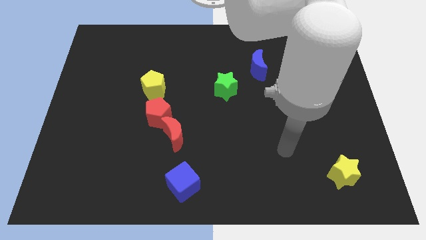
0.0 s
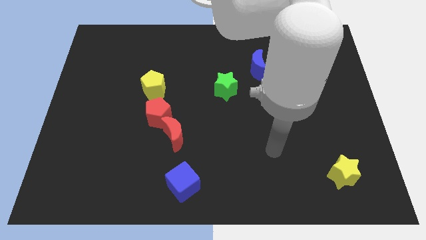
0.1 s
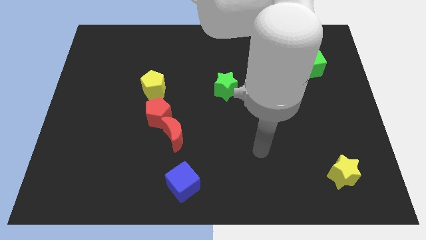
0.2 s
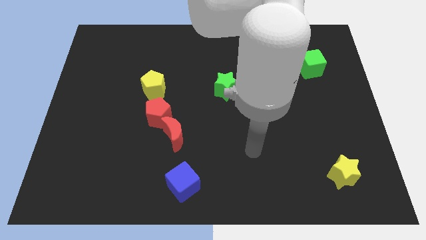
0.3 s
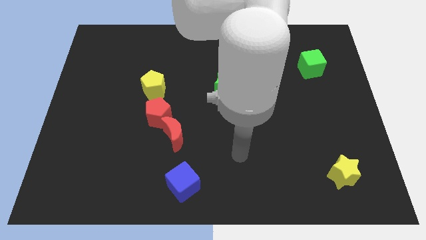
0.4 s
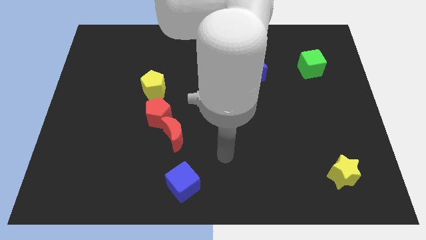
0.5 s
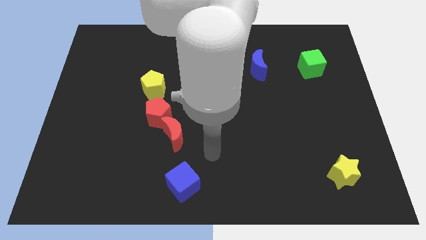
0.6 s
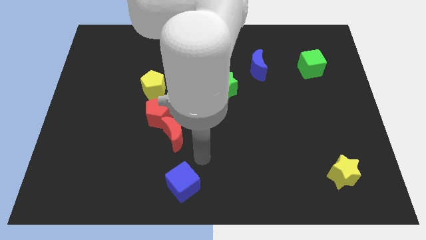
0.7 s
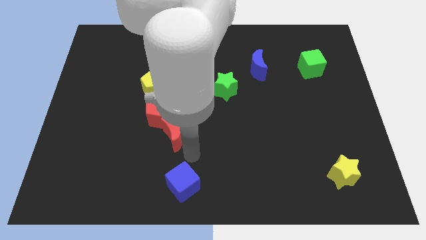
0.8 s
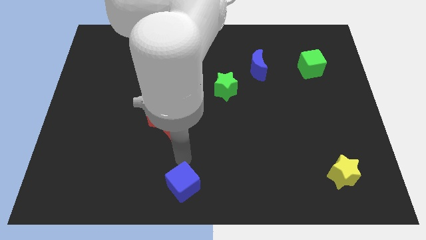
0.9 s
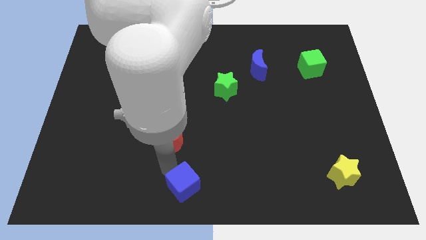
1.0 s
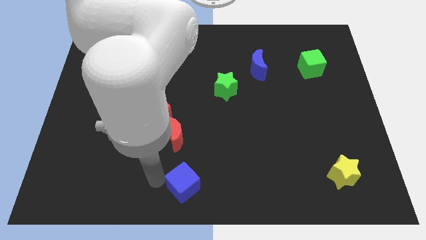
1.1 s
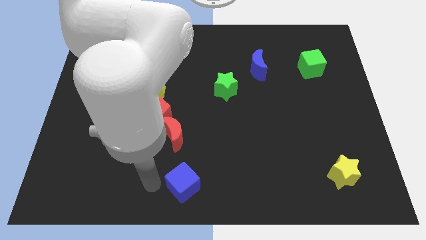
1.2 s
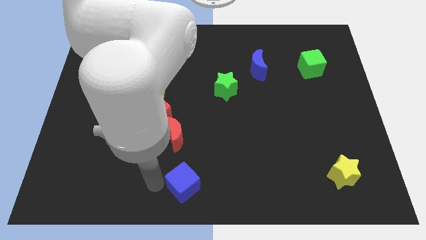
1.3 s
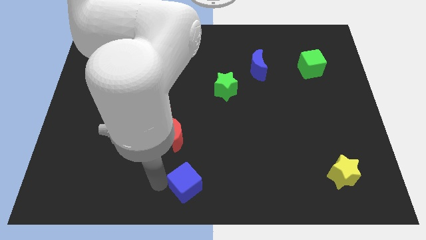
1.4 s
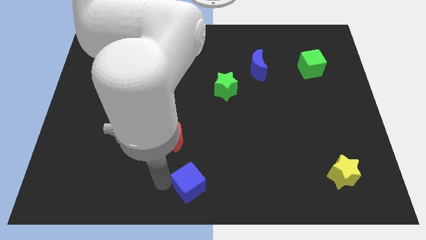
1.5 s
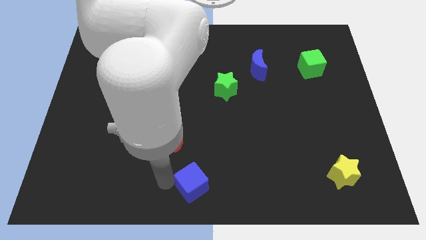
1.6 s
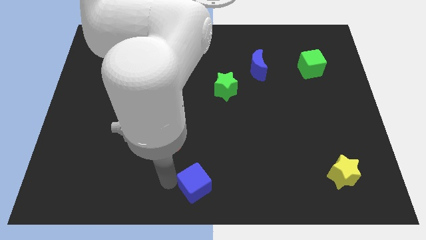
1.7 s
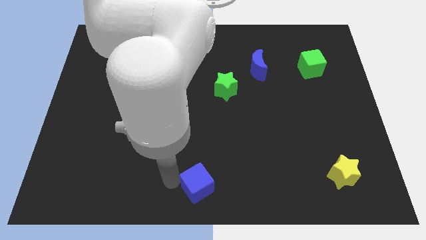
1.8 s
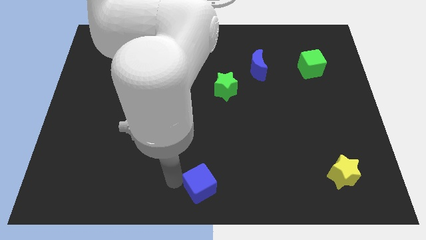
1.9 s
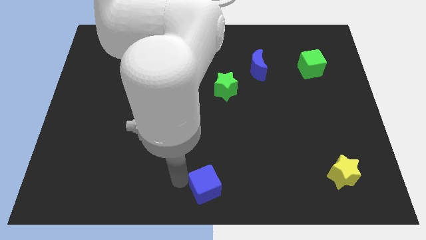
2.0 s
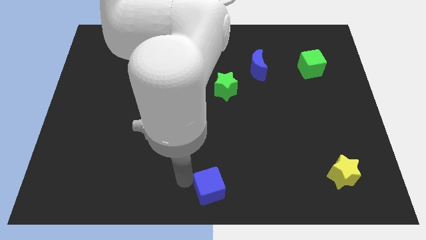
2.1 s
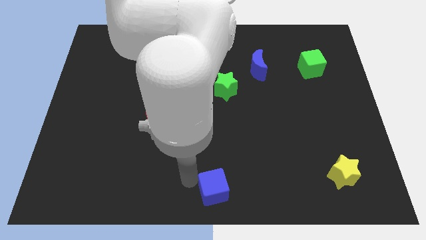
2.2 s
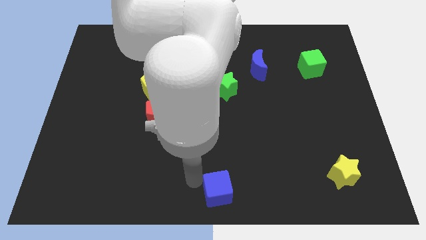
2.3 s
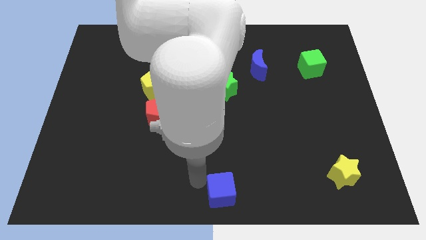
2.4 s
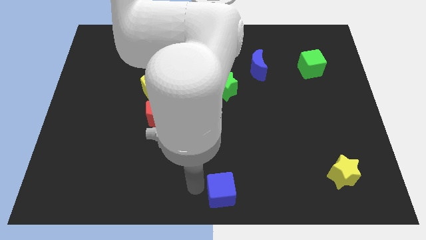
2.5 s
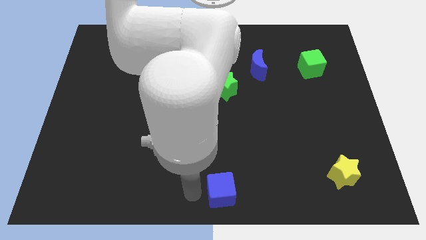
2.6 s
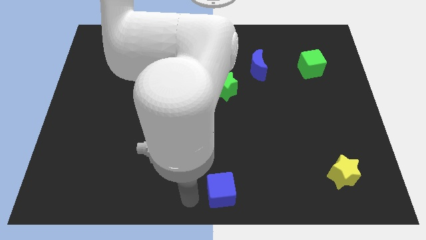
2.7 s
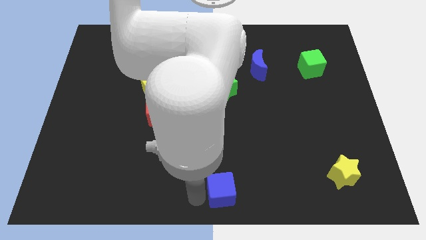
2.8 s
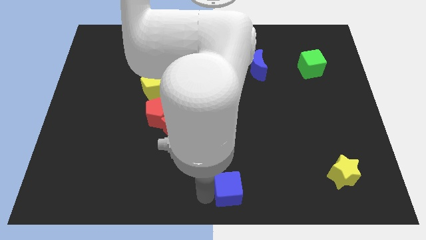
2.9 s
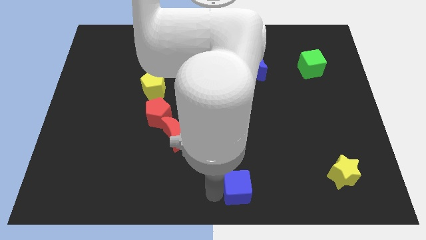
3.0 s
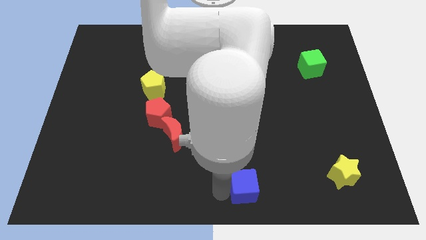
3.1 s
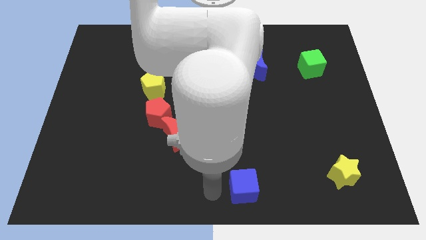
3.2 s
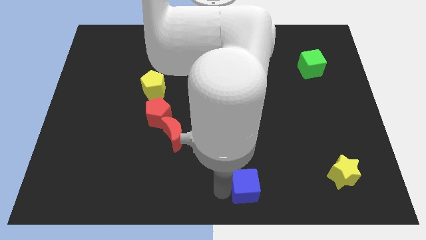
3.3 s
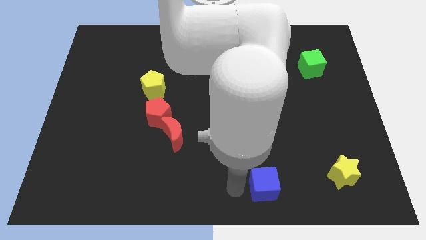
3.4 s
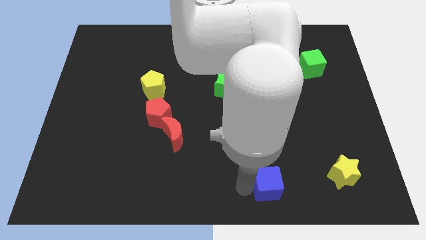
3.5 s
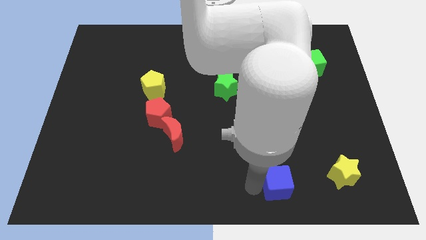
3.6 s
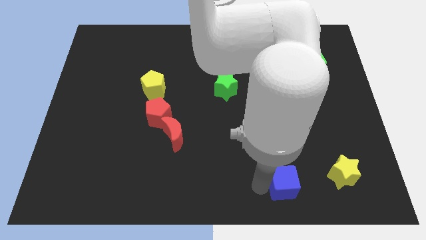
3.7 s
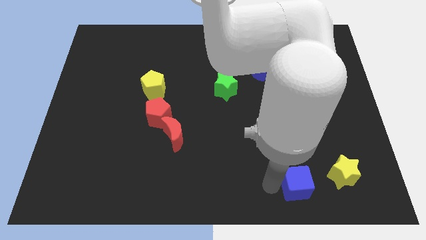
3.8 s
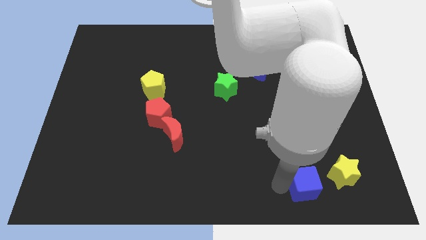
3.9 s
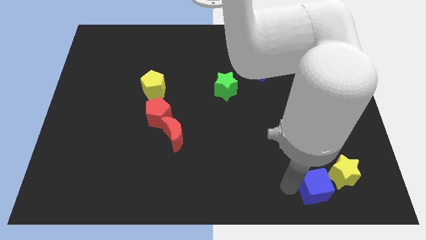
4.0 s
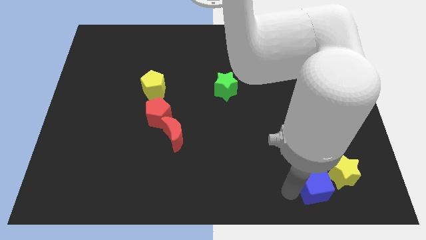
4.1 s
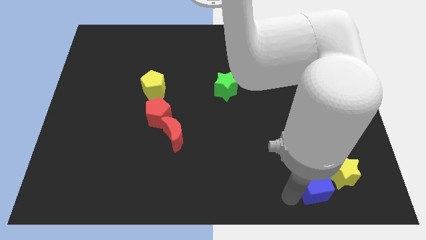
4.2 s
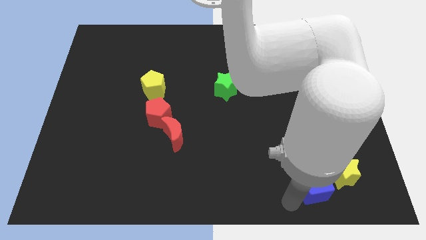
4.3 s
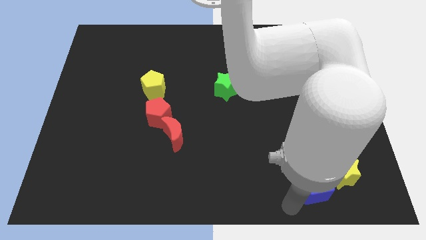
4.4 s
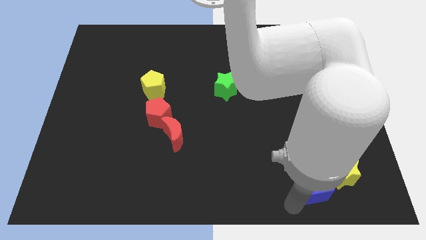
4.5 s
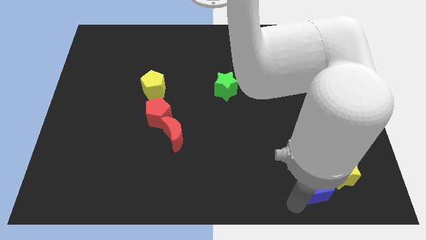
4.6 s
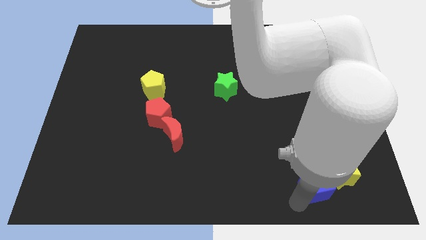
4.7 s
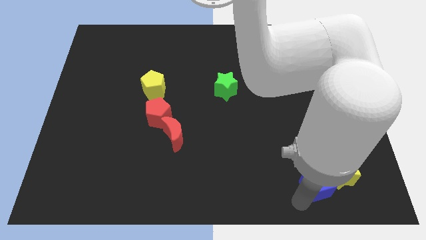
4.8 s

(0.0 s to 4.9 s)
slide the blue cube next to the yellow star

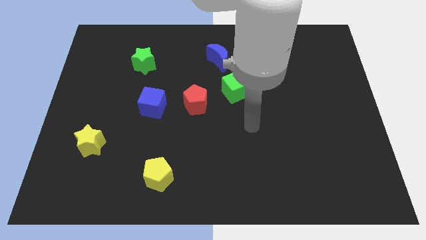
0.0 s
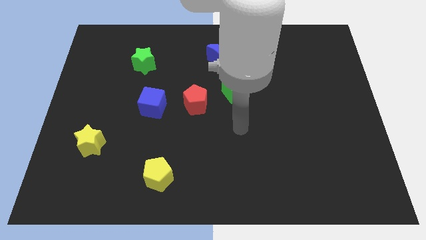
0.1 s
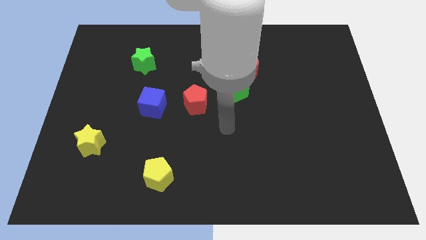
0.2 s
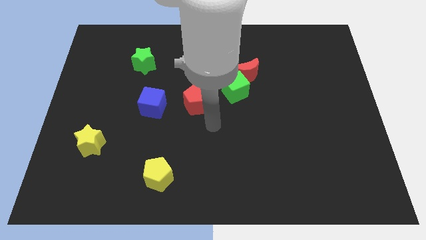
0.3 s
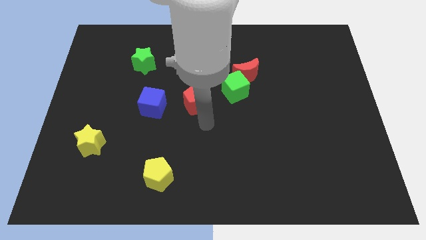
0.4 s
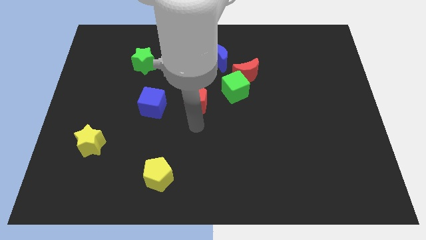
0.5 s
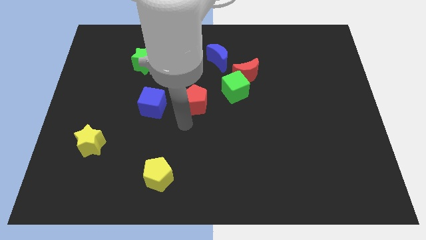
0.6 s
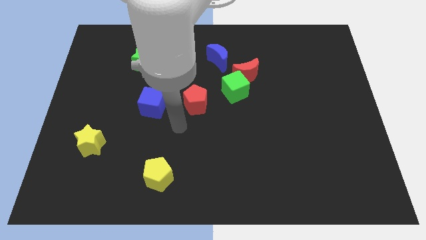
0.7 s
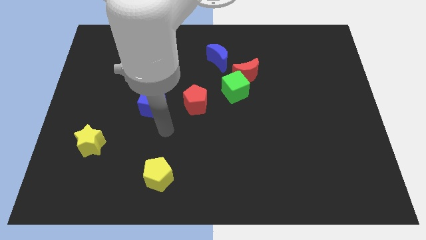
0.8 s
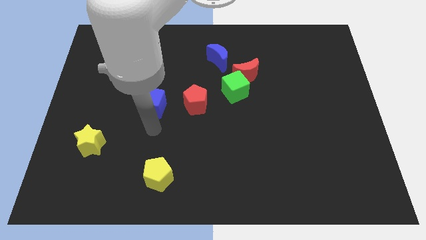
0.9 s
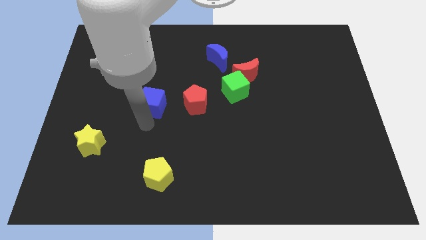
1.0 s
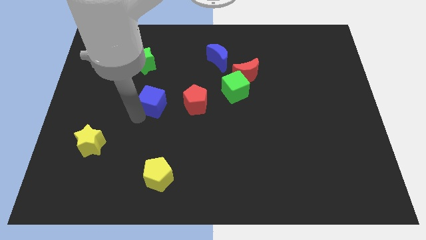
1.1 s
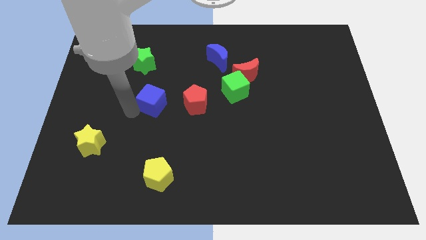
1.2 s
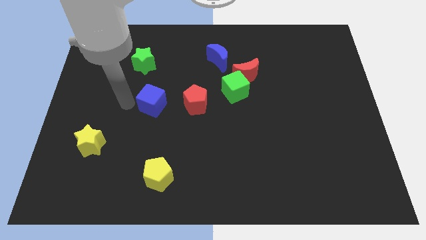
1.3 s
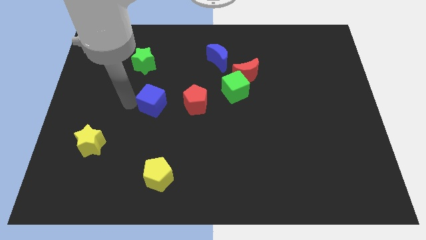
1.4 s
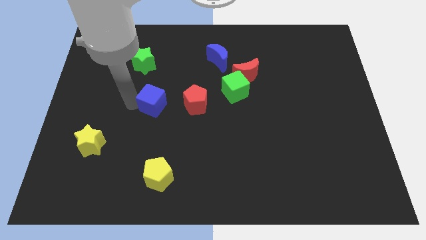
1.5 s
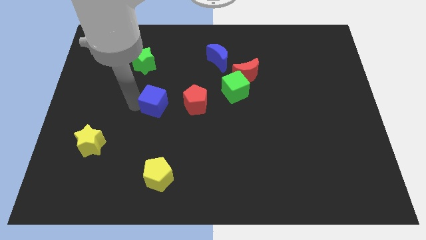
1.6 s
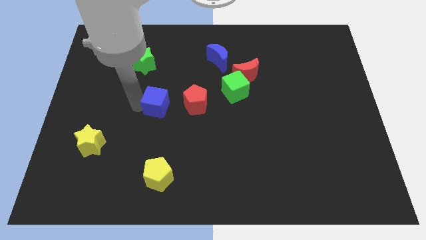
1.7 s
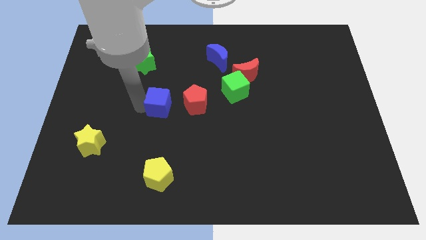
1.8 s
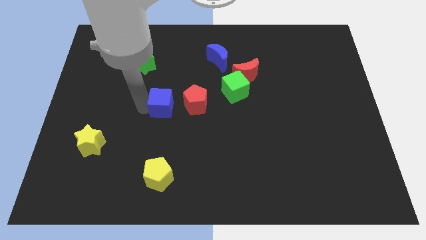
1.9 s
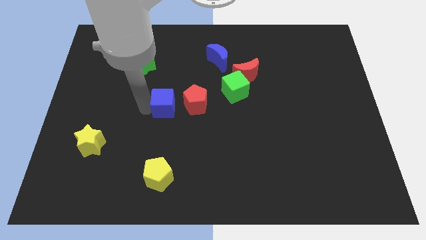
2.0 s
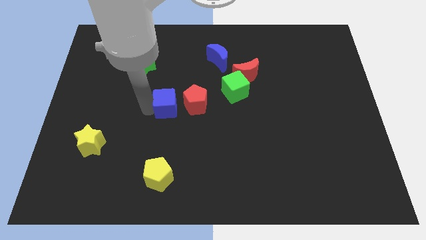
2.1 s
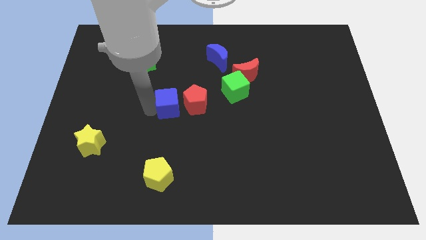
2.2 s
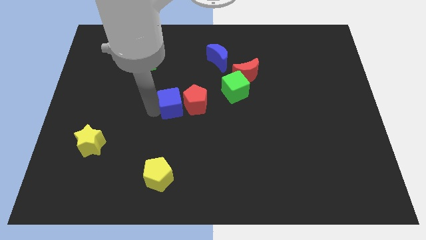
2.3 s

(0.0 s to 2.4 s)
move the blue cube towards the red pentagon
